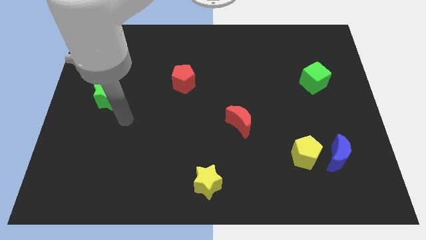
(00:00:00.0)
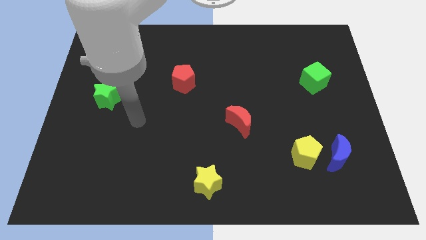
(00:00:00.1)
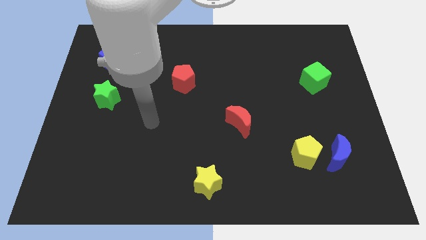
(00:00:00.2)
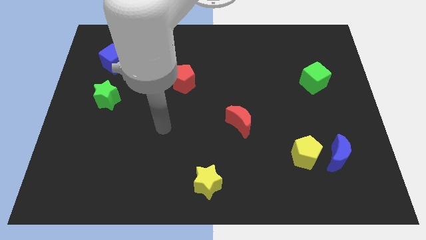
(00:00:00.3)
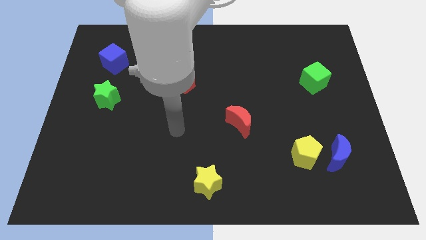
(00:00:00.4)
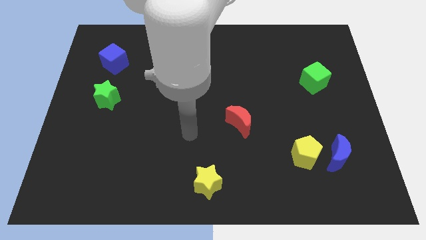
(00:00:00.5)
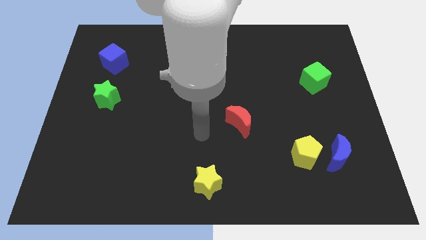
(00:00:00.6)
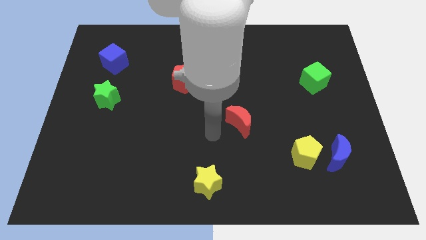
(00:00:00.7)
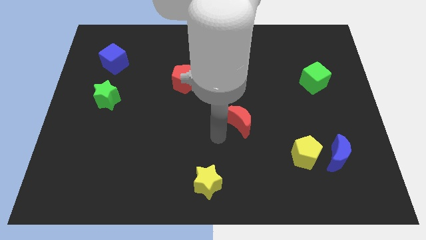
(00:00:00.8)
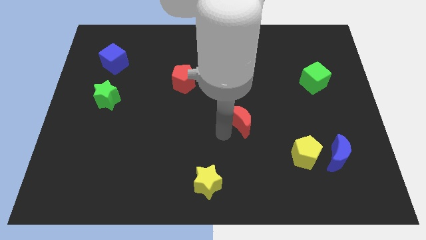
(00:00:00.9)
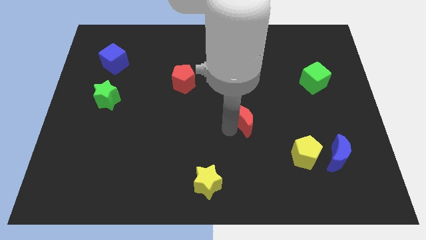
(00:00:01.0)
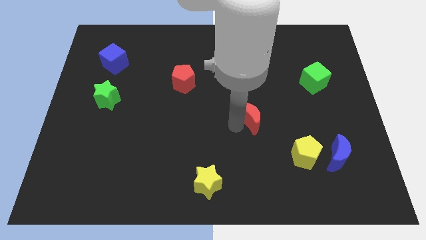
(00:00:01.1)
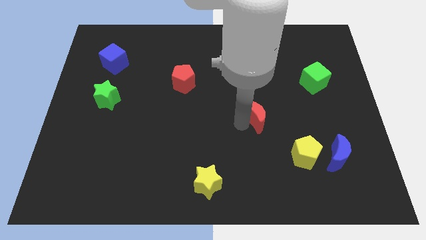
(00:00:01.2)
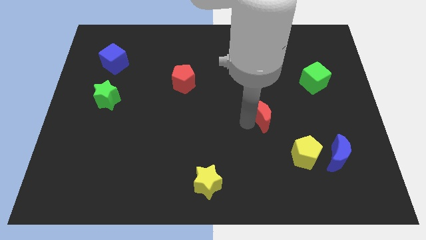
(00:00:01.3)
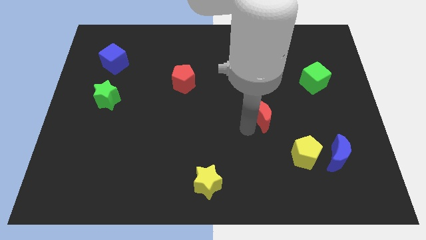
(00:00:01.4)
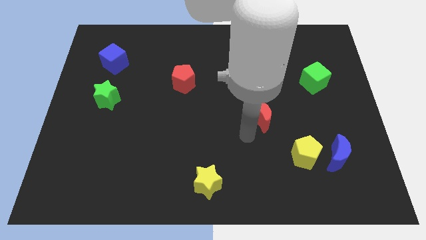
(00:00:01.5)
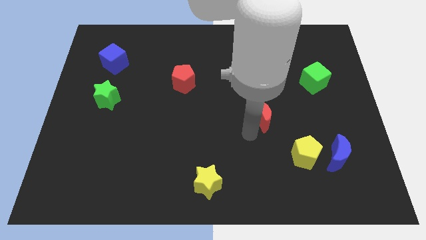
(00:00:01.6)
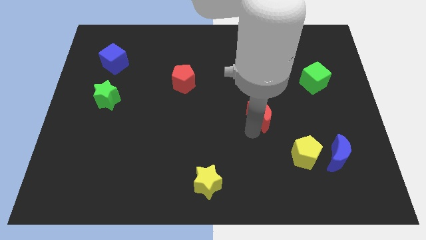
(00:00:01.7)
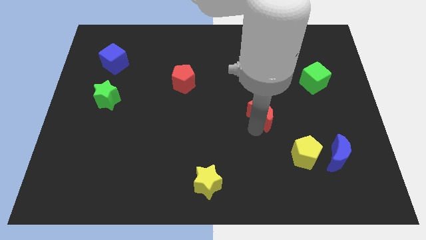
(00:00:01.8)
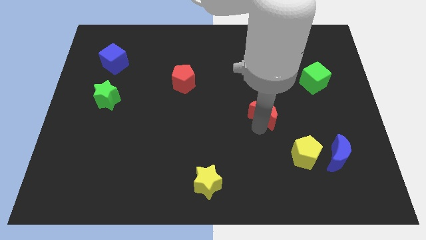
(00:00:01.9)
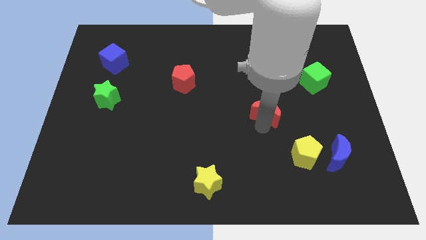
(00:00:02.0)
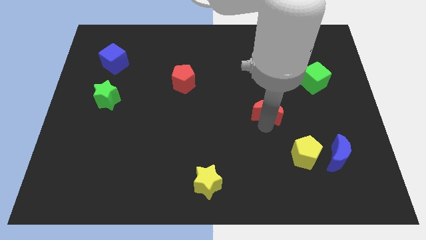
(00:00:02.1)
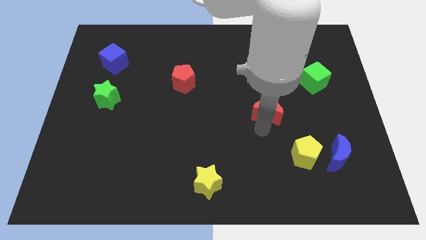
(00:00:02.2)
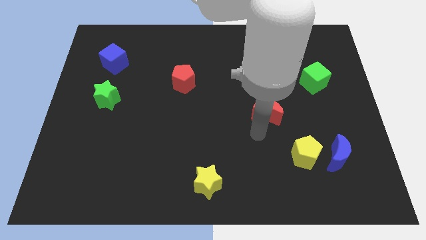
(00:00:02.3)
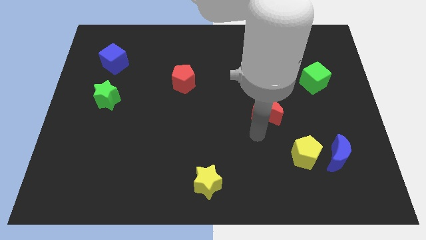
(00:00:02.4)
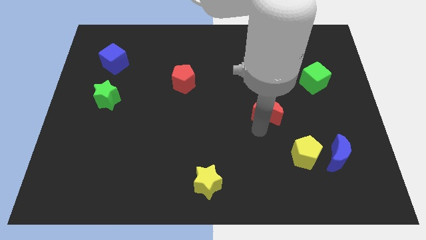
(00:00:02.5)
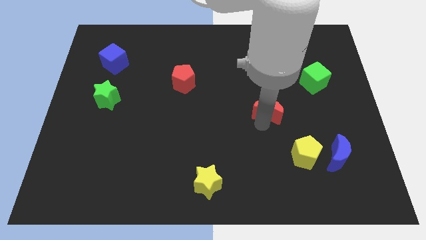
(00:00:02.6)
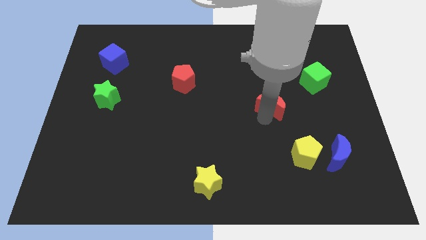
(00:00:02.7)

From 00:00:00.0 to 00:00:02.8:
push the red moon slightly upwards and right

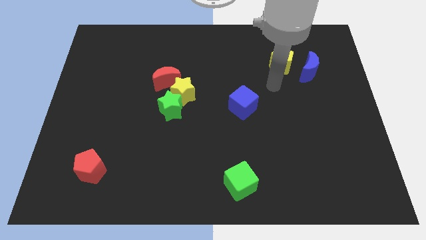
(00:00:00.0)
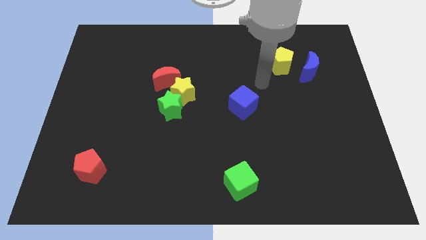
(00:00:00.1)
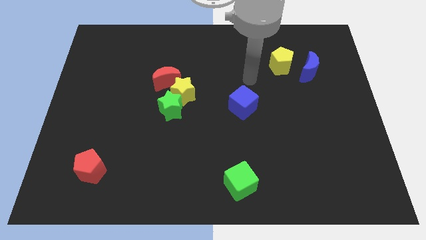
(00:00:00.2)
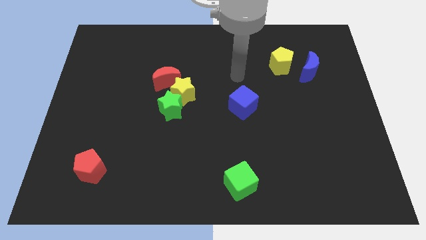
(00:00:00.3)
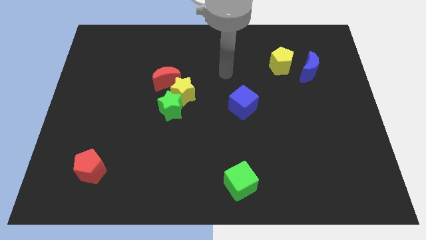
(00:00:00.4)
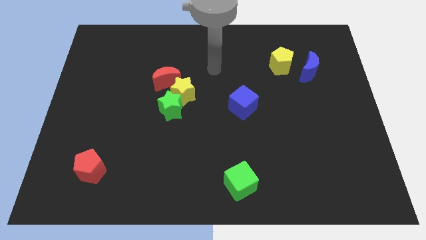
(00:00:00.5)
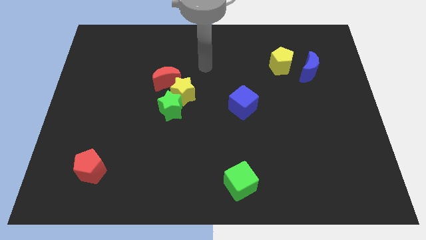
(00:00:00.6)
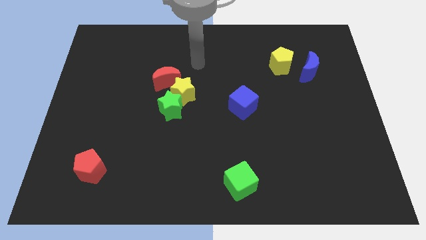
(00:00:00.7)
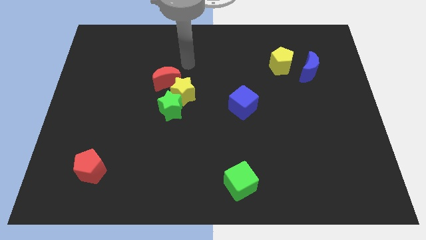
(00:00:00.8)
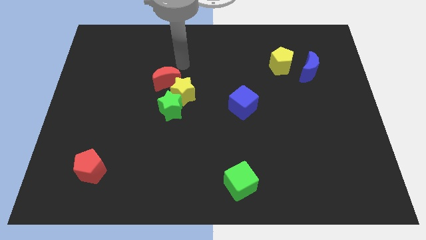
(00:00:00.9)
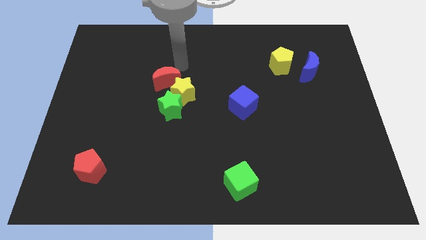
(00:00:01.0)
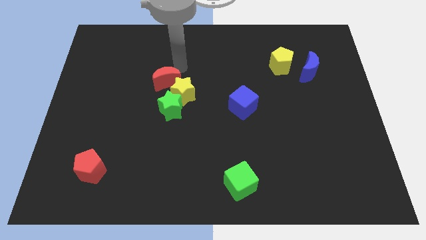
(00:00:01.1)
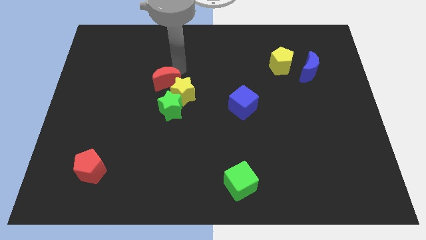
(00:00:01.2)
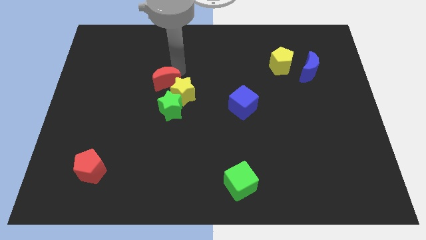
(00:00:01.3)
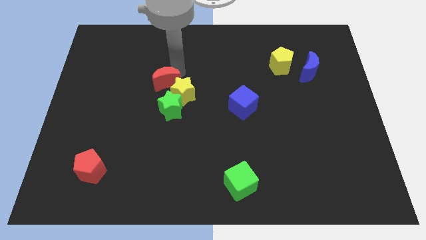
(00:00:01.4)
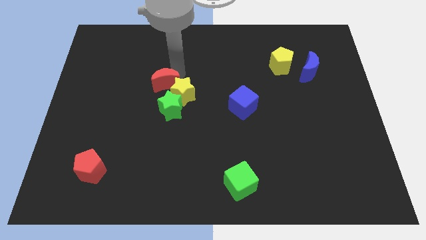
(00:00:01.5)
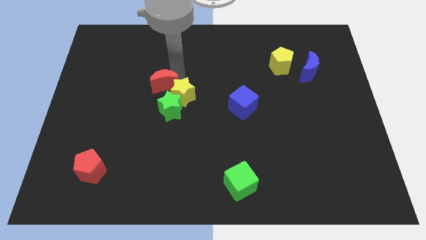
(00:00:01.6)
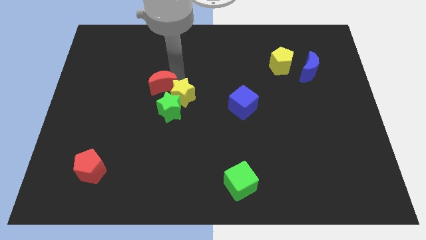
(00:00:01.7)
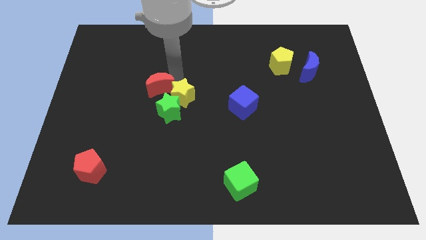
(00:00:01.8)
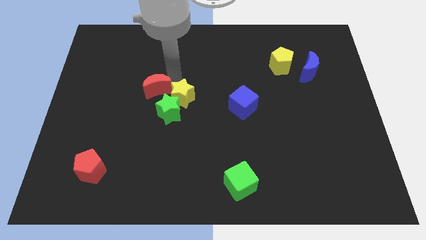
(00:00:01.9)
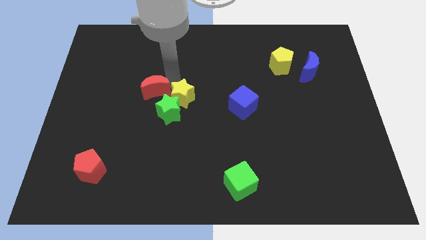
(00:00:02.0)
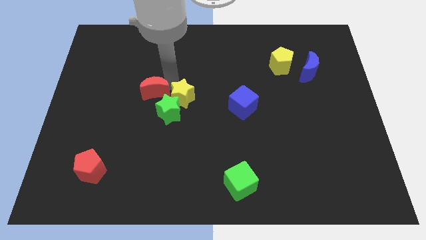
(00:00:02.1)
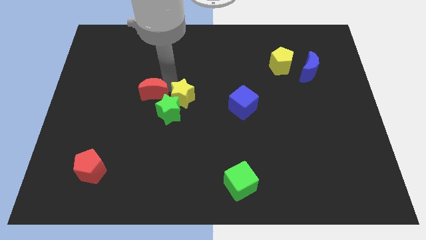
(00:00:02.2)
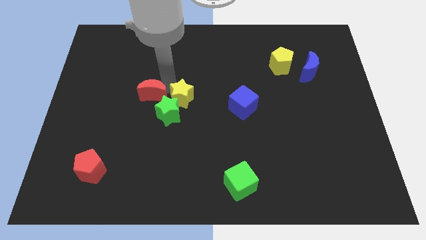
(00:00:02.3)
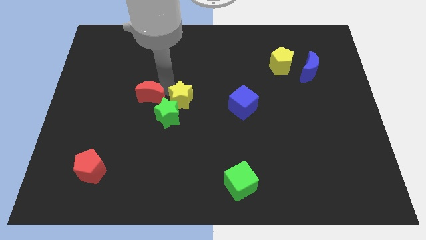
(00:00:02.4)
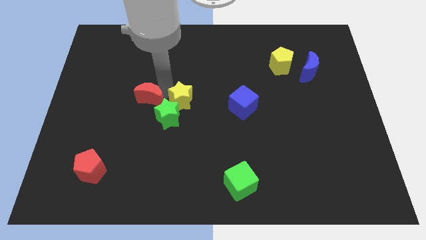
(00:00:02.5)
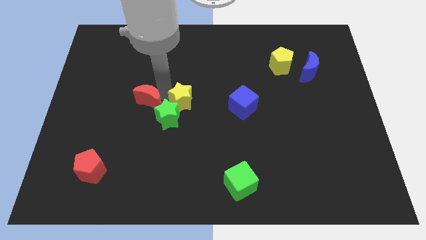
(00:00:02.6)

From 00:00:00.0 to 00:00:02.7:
slide the red moon a bit downwards and left diagonally

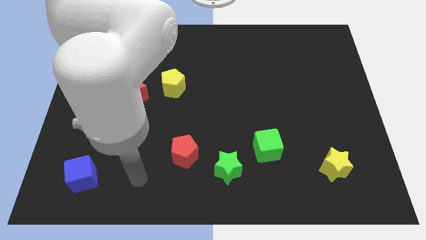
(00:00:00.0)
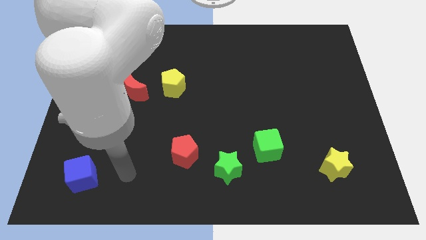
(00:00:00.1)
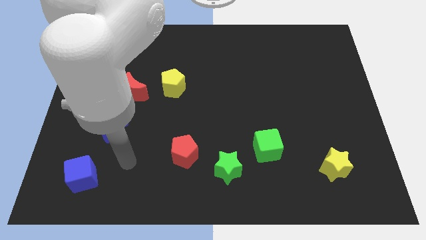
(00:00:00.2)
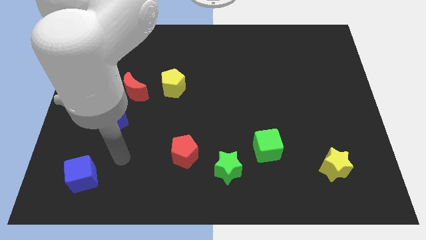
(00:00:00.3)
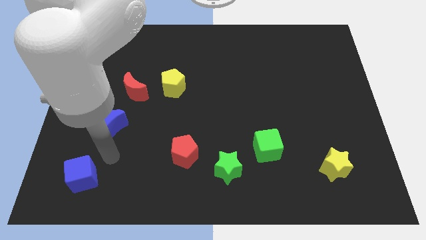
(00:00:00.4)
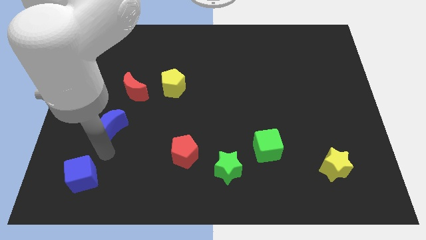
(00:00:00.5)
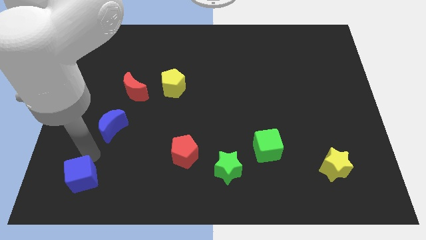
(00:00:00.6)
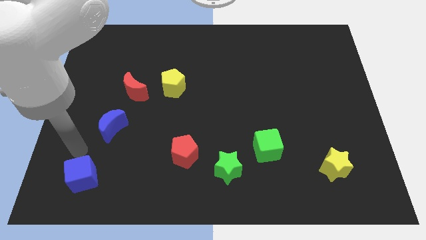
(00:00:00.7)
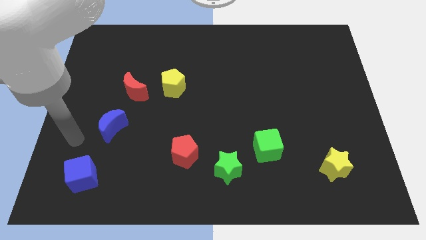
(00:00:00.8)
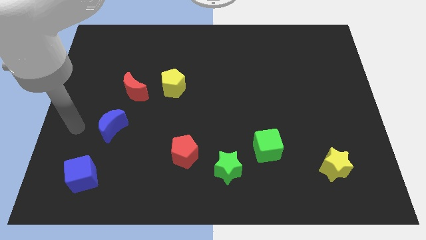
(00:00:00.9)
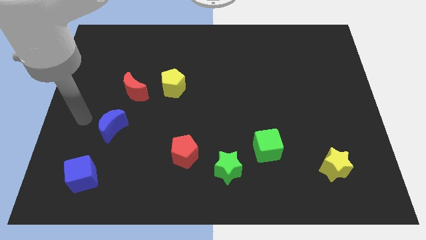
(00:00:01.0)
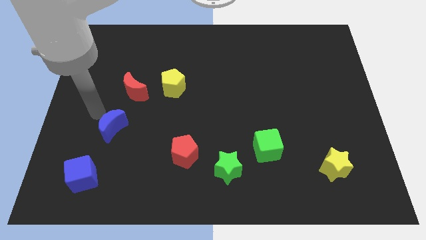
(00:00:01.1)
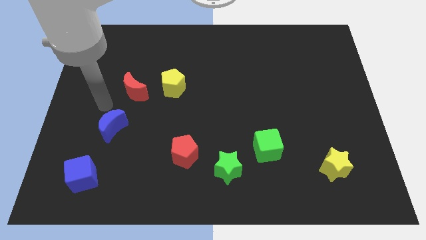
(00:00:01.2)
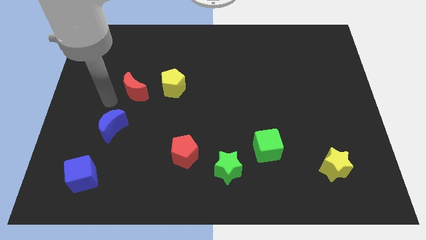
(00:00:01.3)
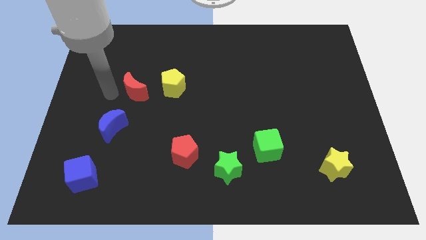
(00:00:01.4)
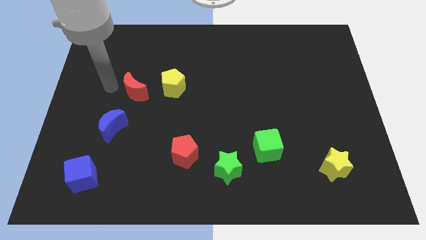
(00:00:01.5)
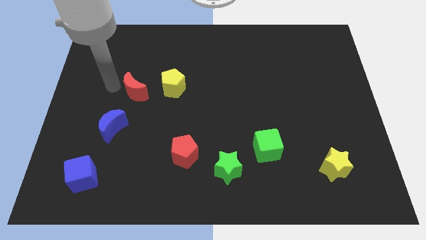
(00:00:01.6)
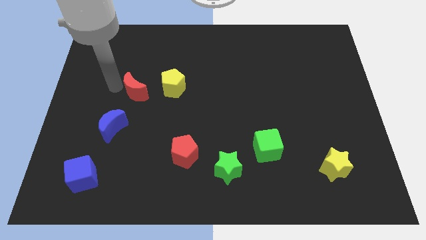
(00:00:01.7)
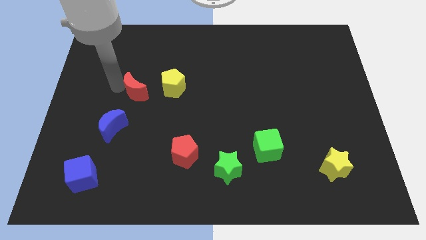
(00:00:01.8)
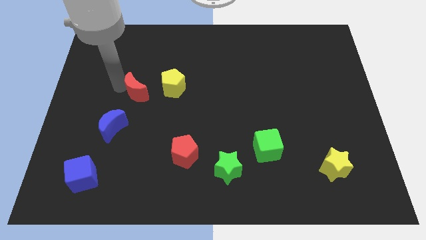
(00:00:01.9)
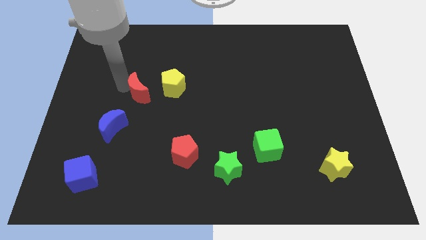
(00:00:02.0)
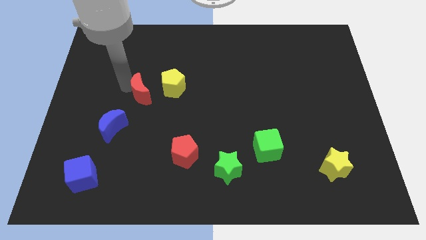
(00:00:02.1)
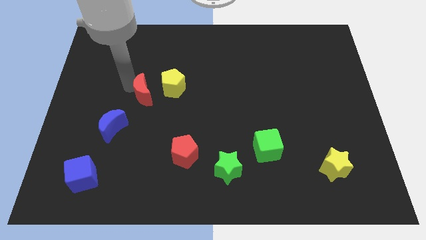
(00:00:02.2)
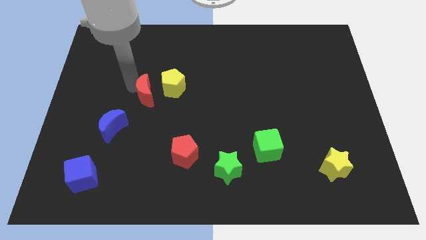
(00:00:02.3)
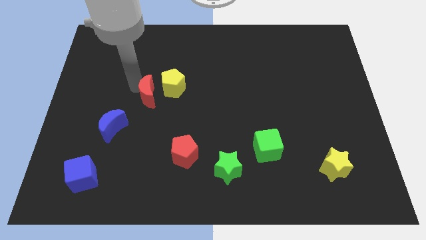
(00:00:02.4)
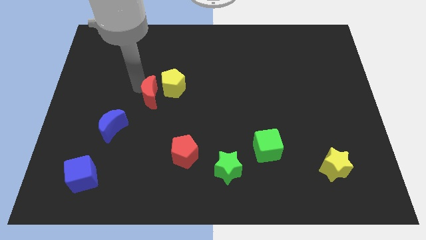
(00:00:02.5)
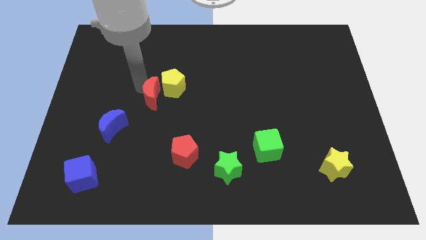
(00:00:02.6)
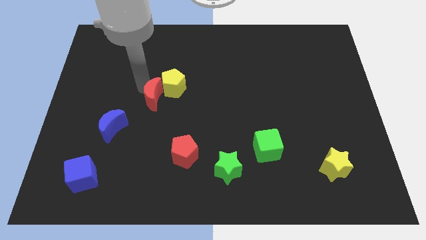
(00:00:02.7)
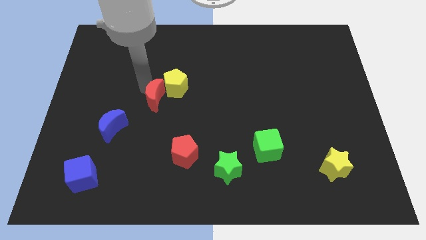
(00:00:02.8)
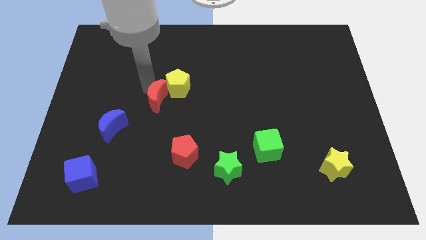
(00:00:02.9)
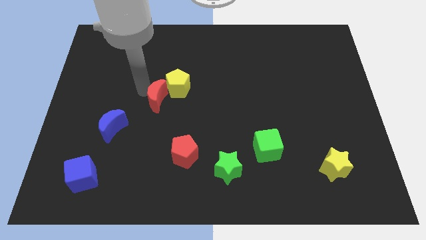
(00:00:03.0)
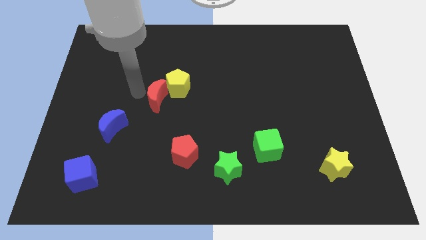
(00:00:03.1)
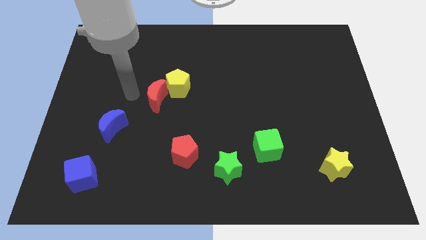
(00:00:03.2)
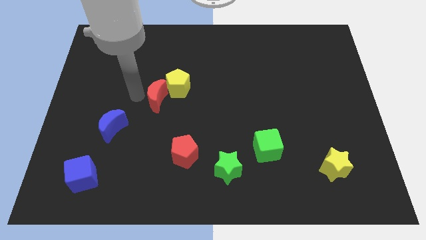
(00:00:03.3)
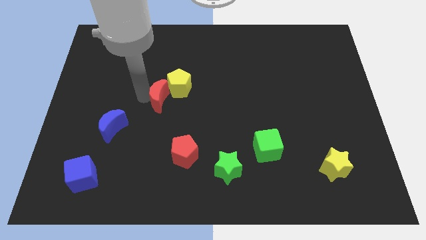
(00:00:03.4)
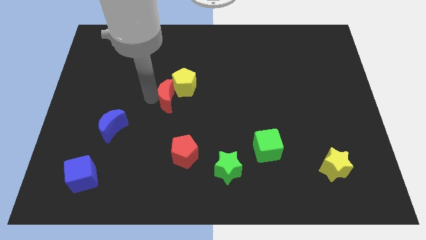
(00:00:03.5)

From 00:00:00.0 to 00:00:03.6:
push the red moon right a little
